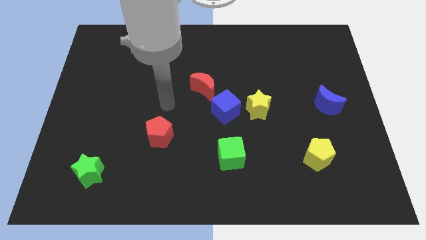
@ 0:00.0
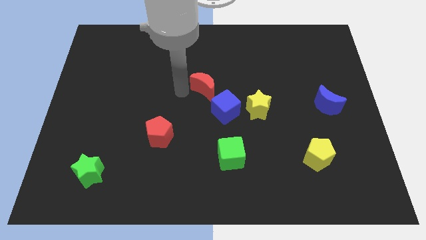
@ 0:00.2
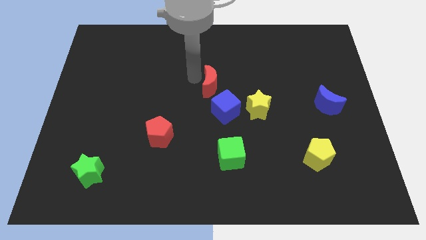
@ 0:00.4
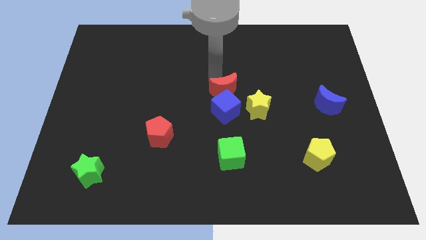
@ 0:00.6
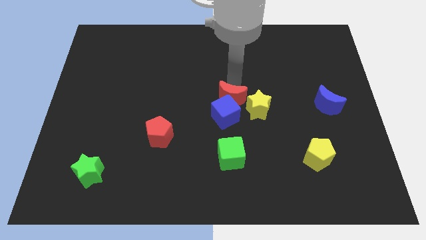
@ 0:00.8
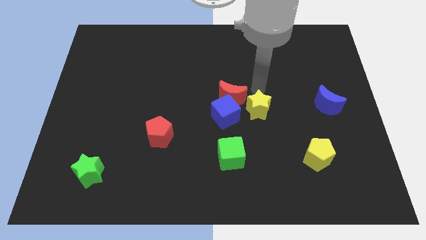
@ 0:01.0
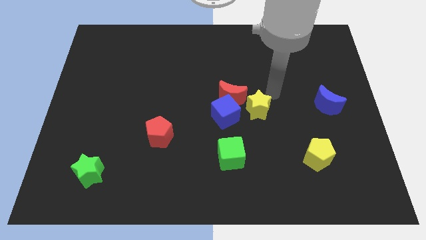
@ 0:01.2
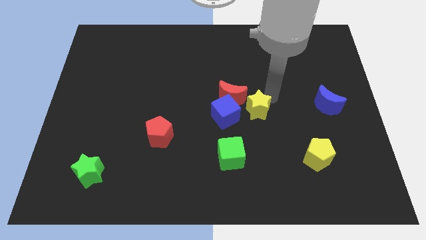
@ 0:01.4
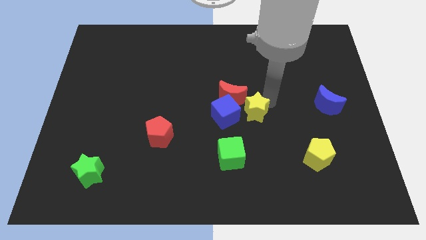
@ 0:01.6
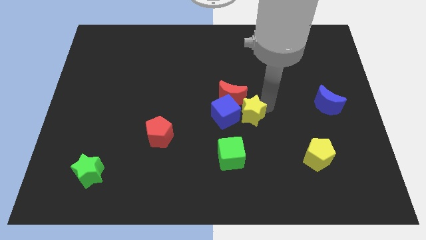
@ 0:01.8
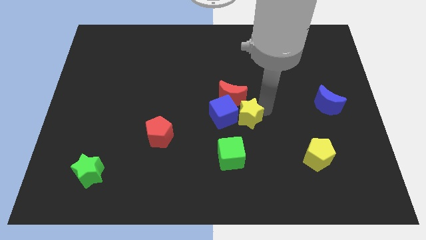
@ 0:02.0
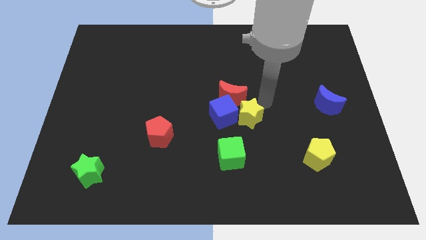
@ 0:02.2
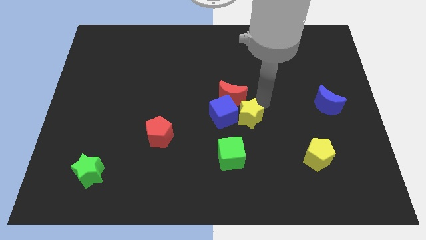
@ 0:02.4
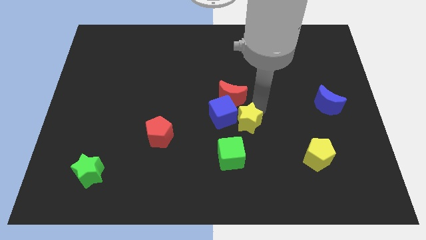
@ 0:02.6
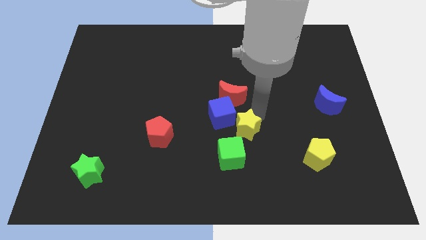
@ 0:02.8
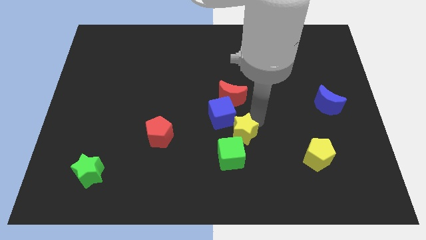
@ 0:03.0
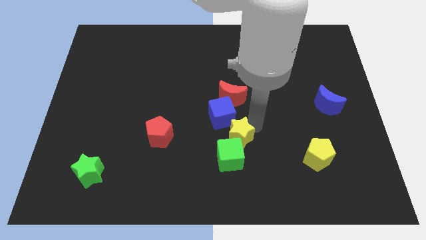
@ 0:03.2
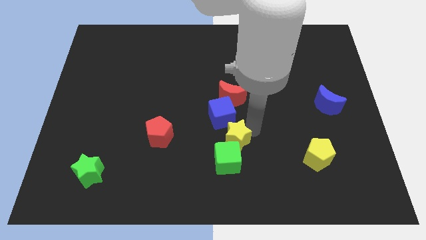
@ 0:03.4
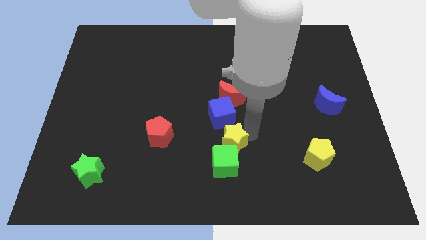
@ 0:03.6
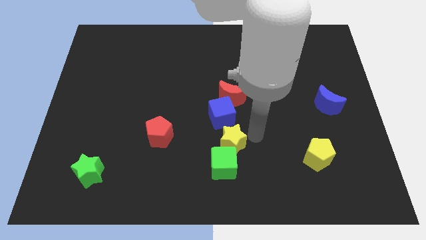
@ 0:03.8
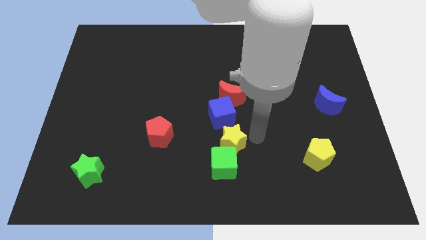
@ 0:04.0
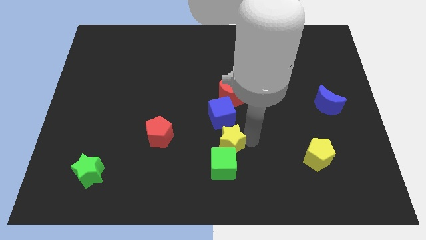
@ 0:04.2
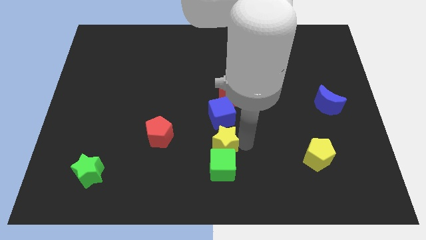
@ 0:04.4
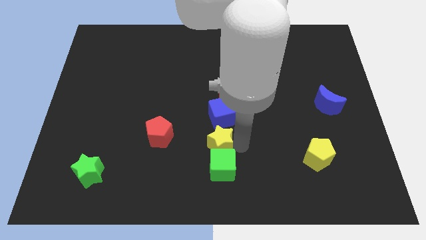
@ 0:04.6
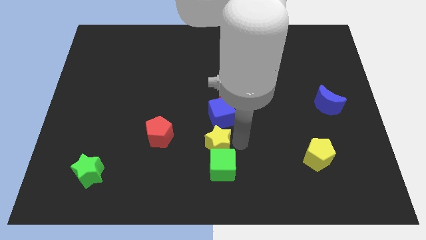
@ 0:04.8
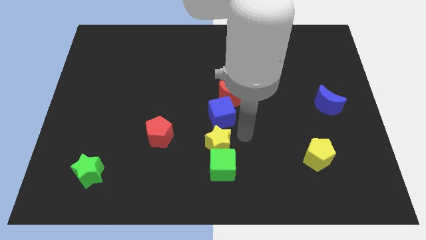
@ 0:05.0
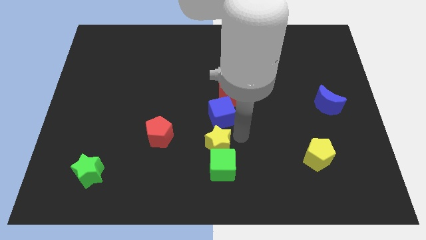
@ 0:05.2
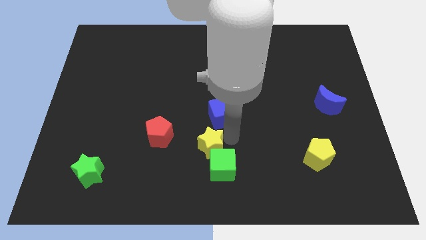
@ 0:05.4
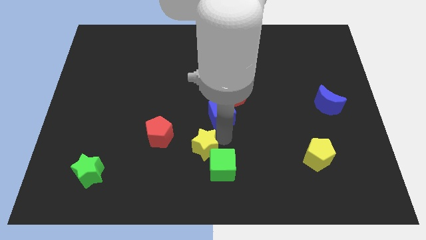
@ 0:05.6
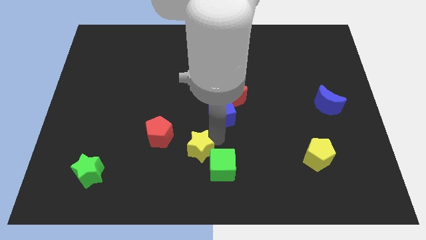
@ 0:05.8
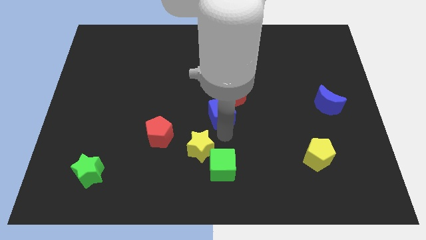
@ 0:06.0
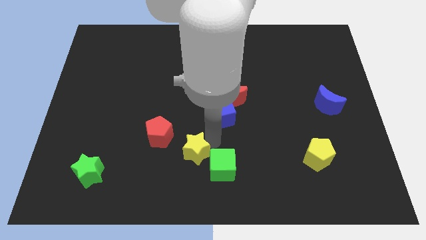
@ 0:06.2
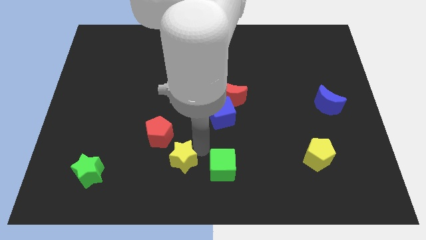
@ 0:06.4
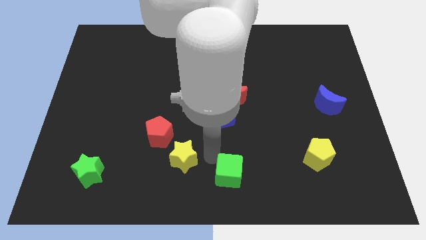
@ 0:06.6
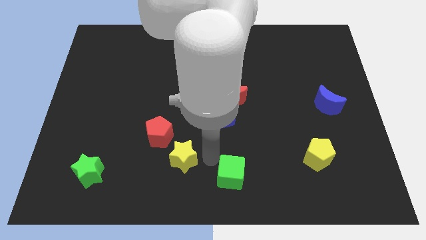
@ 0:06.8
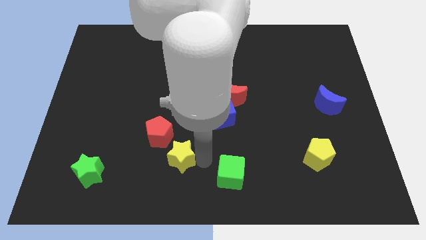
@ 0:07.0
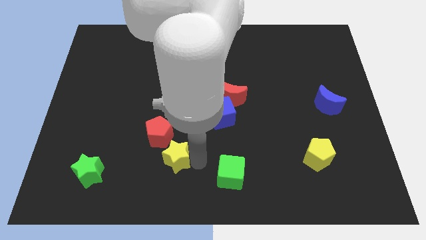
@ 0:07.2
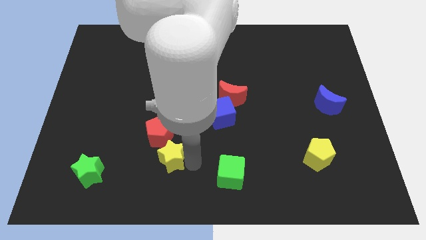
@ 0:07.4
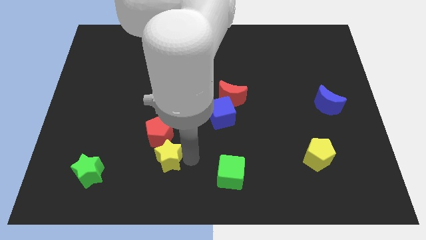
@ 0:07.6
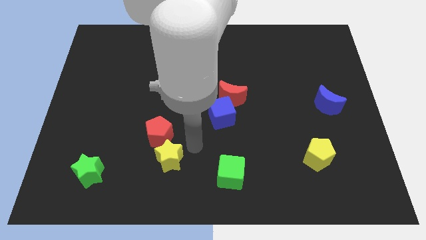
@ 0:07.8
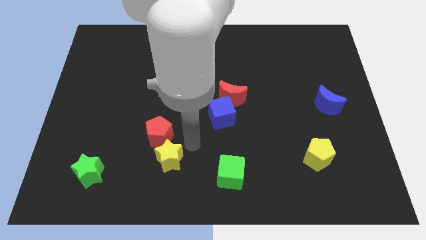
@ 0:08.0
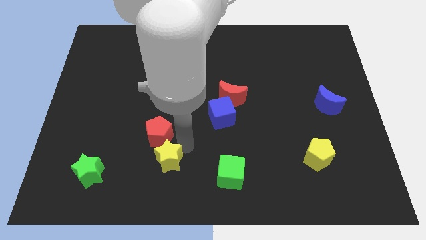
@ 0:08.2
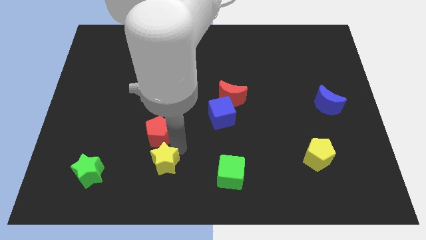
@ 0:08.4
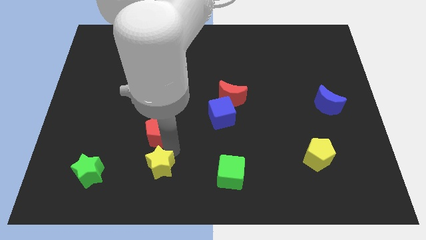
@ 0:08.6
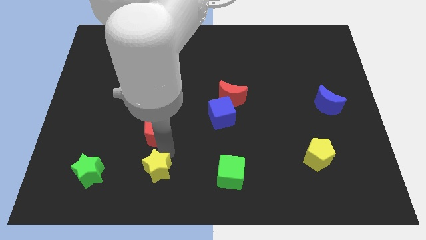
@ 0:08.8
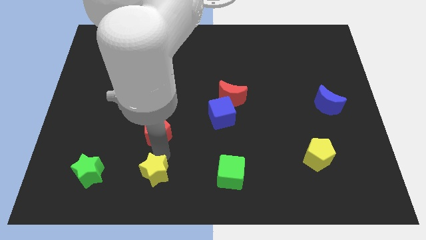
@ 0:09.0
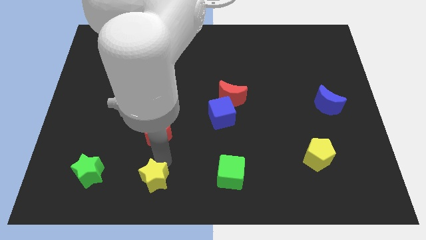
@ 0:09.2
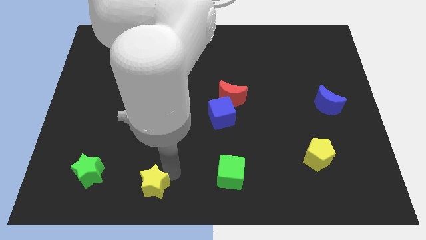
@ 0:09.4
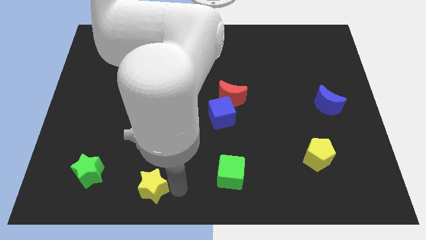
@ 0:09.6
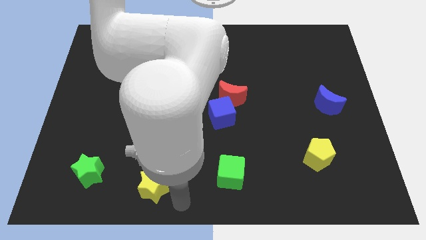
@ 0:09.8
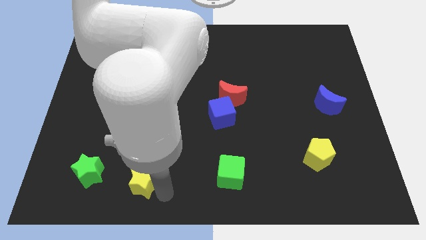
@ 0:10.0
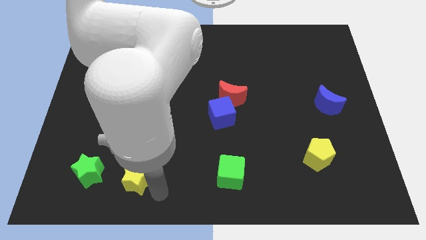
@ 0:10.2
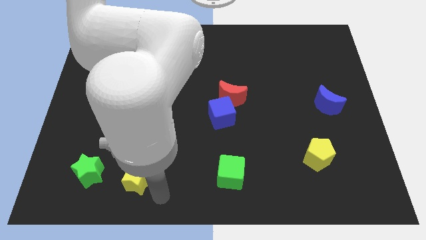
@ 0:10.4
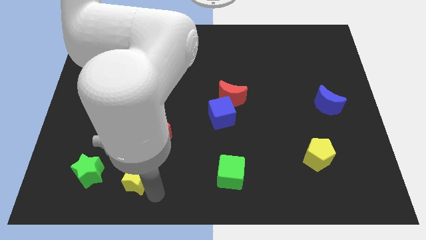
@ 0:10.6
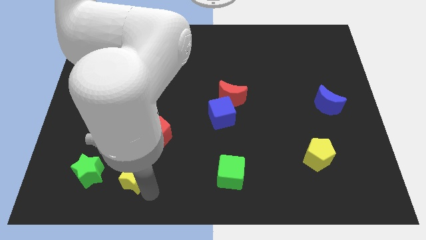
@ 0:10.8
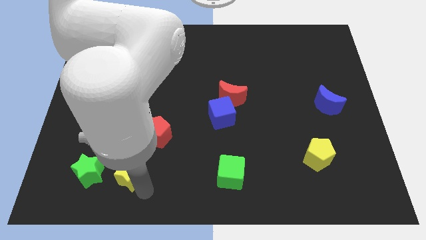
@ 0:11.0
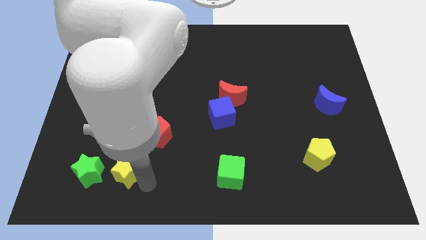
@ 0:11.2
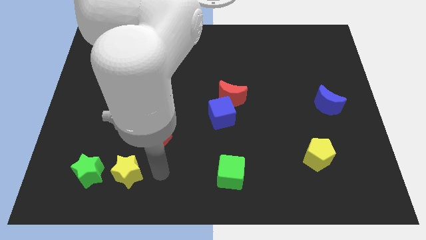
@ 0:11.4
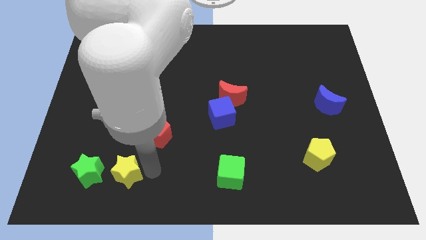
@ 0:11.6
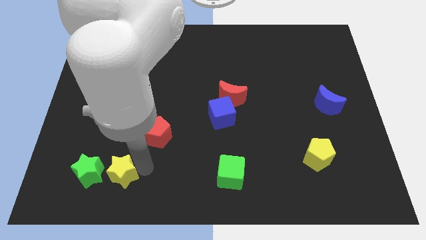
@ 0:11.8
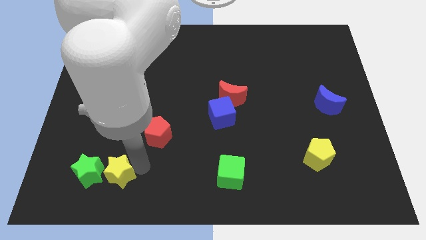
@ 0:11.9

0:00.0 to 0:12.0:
slide the yellow star close to the green star

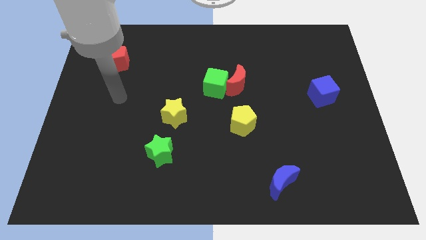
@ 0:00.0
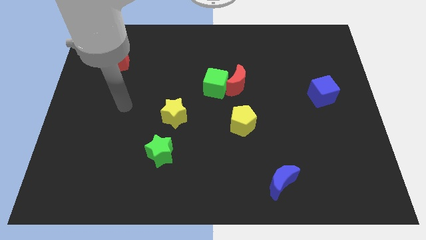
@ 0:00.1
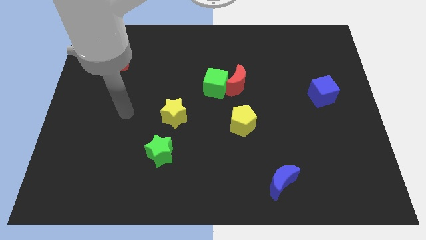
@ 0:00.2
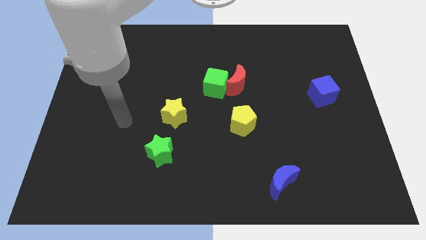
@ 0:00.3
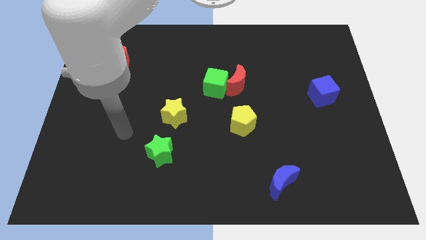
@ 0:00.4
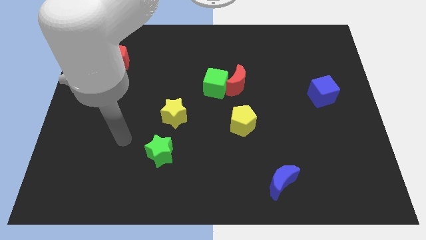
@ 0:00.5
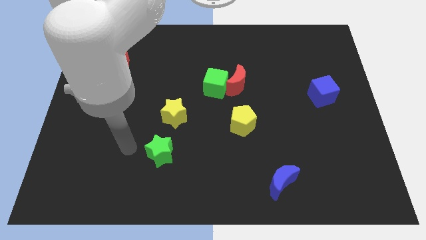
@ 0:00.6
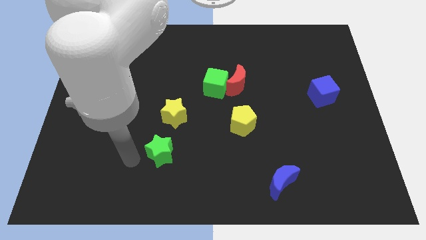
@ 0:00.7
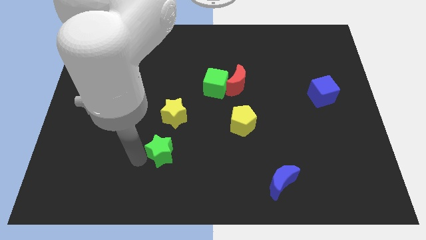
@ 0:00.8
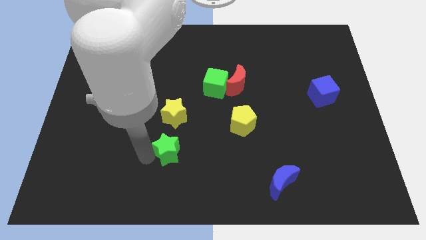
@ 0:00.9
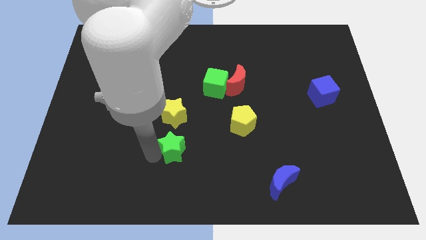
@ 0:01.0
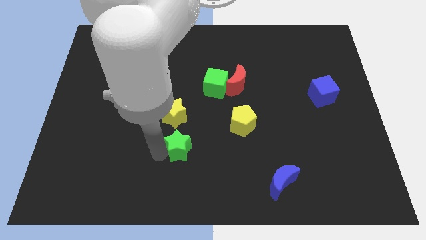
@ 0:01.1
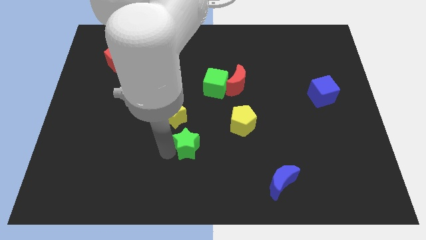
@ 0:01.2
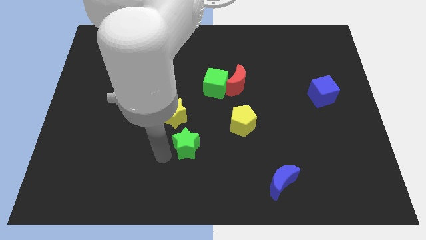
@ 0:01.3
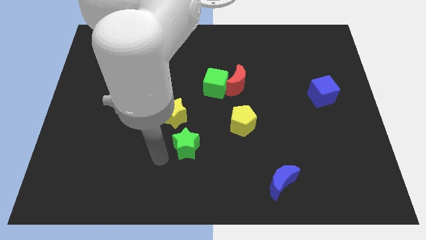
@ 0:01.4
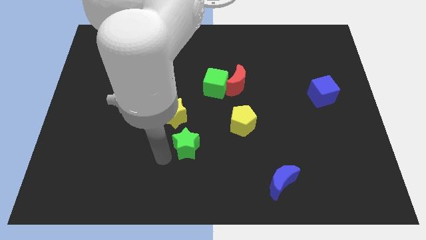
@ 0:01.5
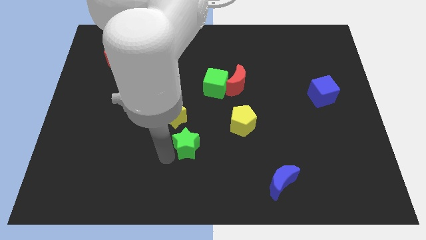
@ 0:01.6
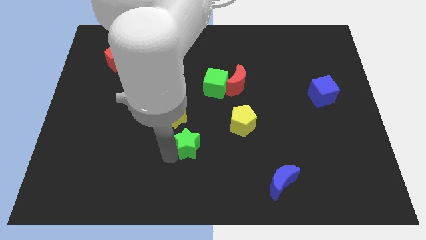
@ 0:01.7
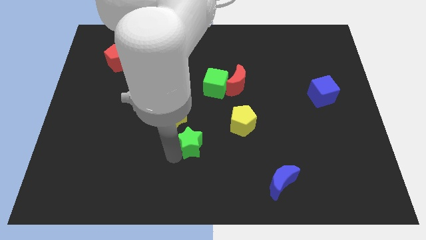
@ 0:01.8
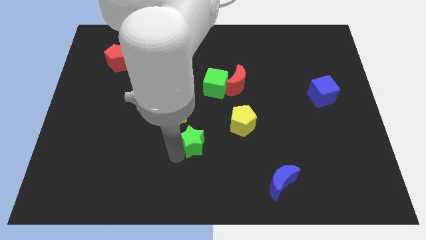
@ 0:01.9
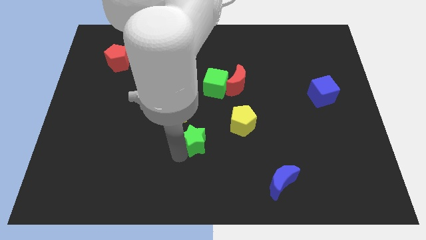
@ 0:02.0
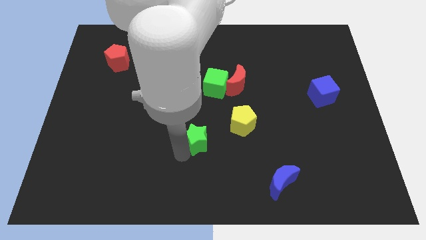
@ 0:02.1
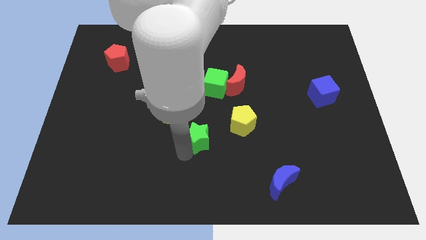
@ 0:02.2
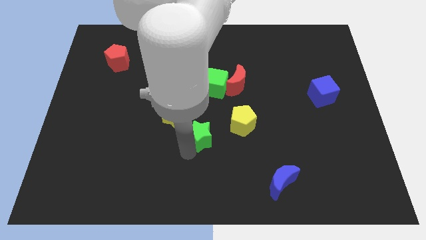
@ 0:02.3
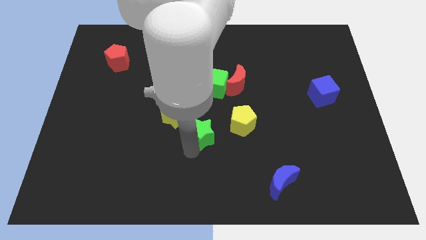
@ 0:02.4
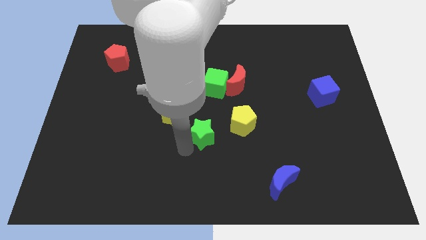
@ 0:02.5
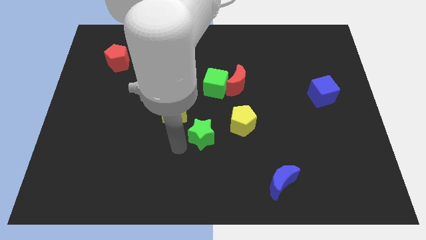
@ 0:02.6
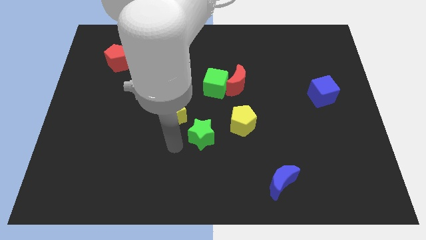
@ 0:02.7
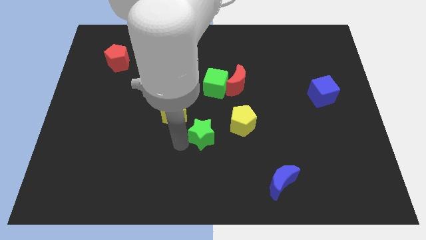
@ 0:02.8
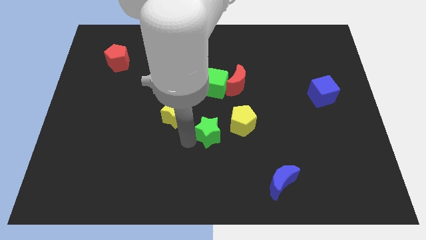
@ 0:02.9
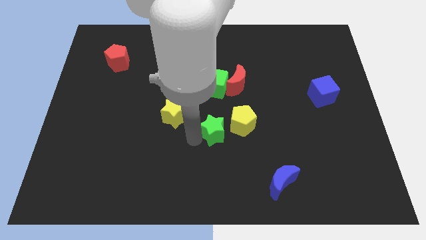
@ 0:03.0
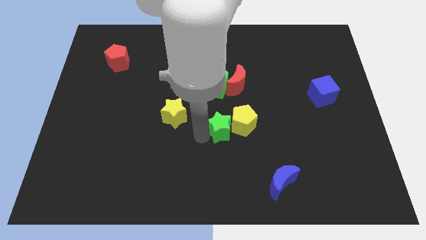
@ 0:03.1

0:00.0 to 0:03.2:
move the green star close to the yellow pentagon
